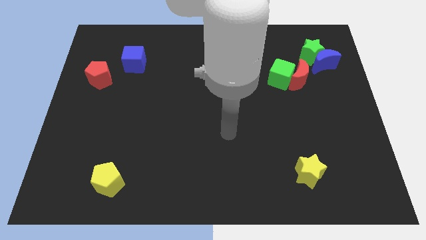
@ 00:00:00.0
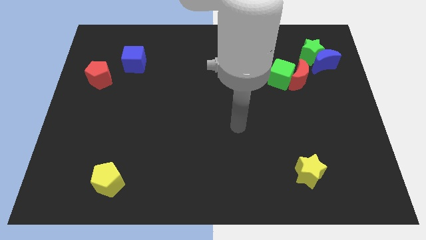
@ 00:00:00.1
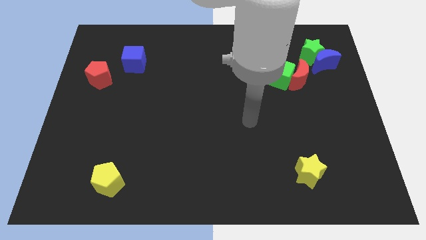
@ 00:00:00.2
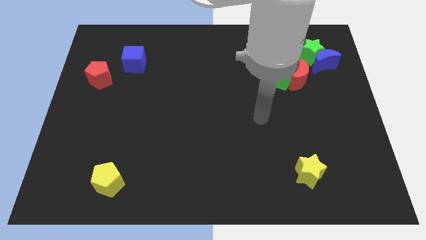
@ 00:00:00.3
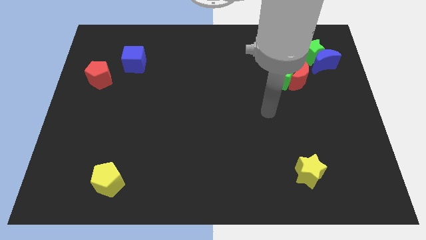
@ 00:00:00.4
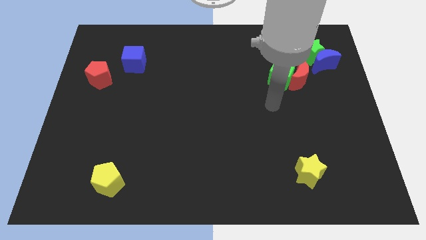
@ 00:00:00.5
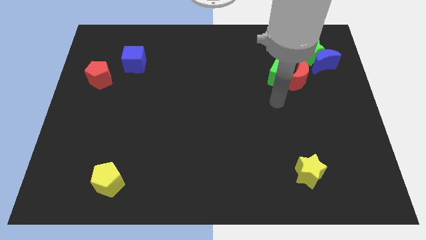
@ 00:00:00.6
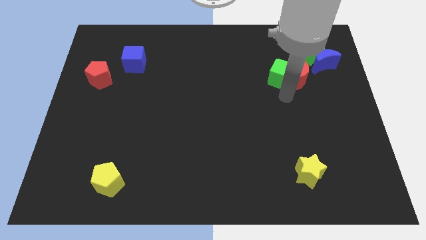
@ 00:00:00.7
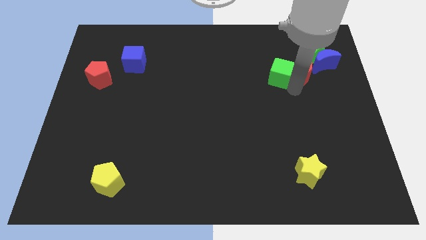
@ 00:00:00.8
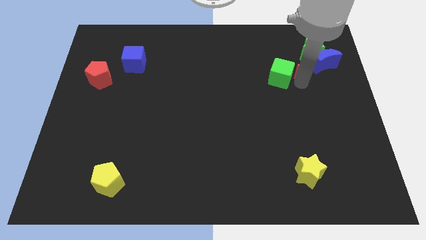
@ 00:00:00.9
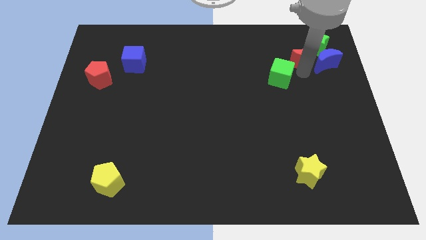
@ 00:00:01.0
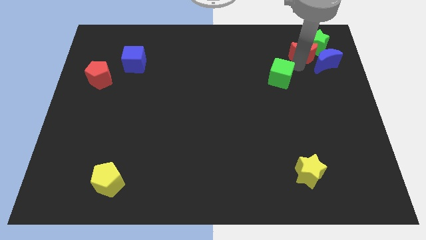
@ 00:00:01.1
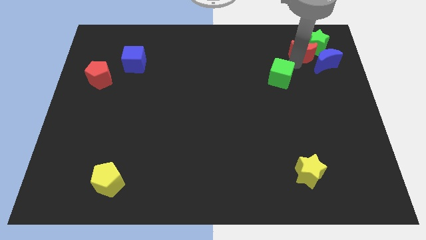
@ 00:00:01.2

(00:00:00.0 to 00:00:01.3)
pull the green cube apart from the red moon

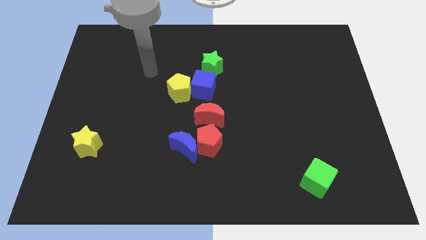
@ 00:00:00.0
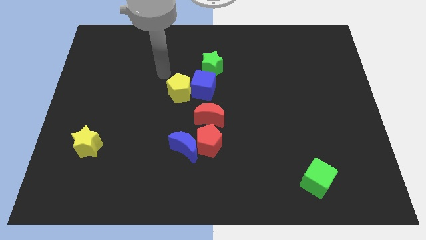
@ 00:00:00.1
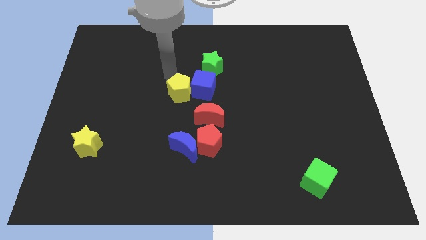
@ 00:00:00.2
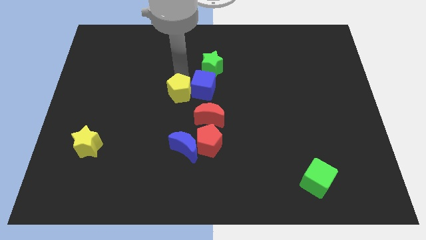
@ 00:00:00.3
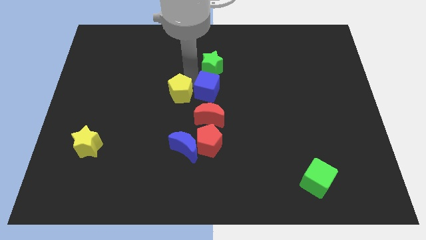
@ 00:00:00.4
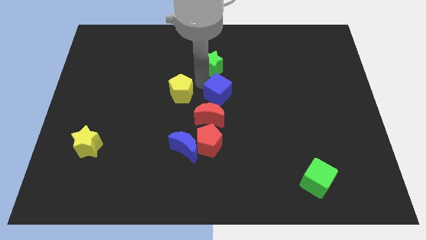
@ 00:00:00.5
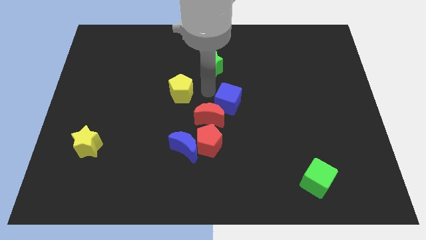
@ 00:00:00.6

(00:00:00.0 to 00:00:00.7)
pull the yellow pentagon apart from the blue cube

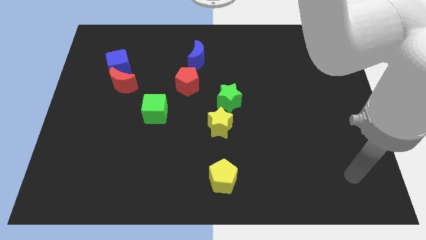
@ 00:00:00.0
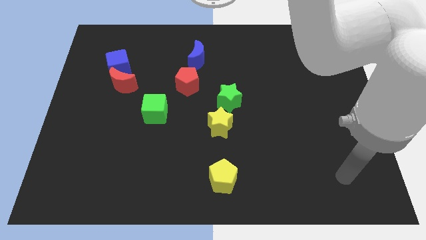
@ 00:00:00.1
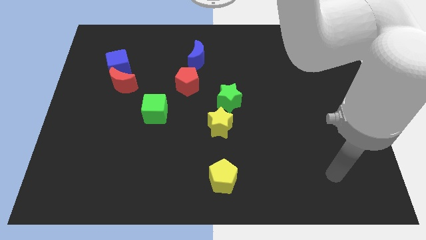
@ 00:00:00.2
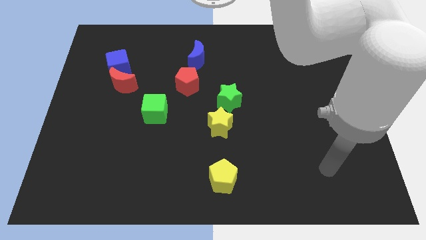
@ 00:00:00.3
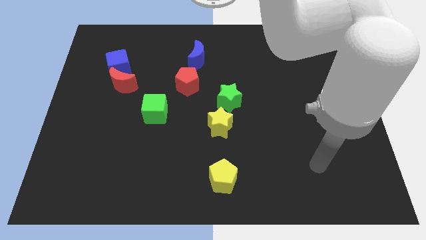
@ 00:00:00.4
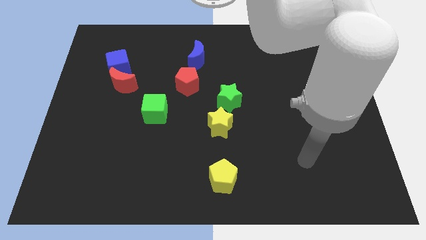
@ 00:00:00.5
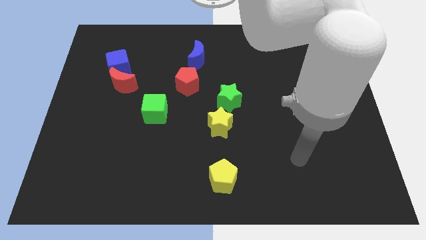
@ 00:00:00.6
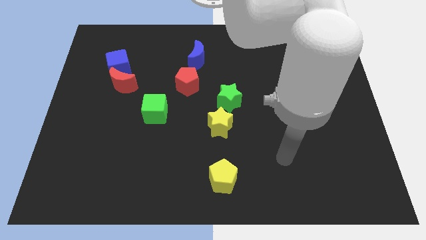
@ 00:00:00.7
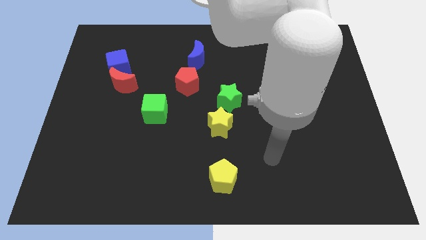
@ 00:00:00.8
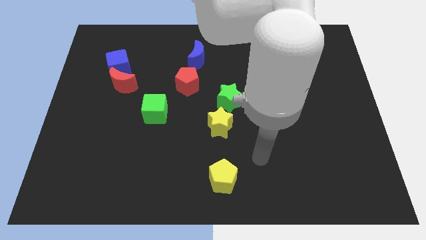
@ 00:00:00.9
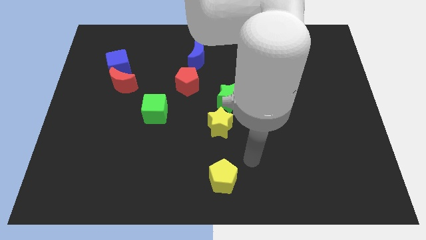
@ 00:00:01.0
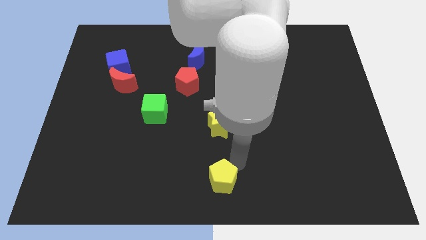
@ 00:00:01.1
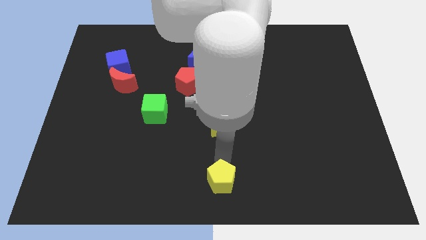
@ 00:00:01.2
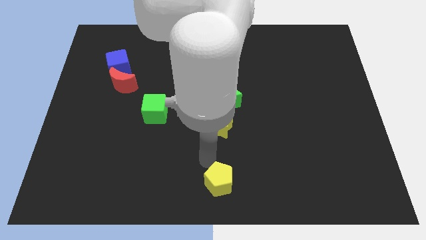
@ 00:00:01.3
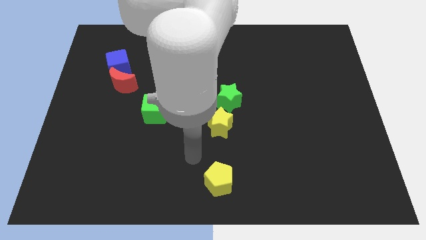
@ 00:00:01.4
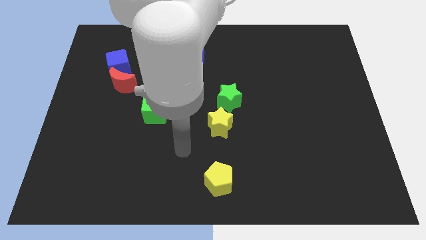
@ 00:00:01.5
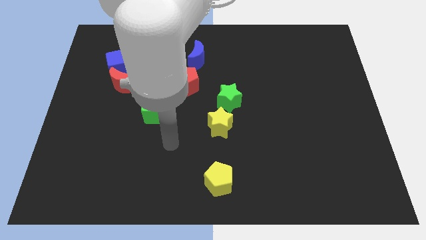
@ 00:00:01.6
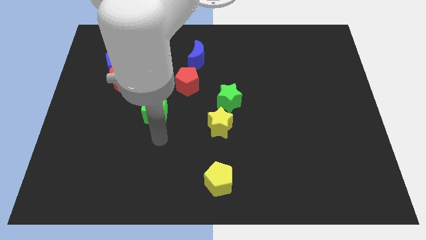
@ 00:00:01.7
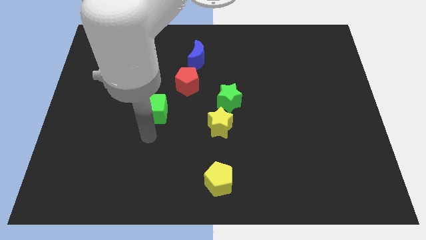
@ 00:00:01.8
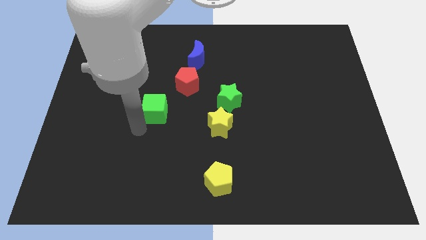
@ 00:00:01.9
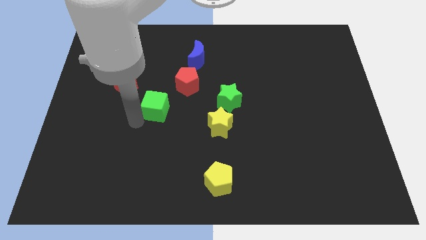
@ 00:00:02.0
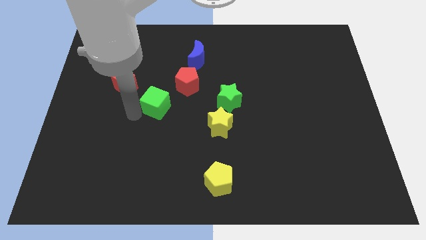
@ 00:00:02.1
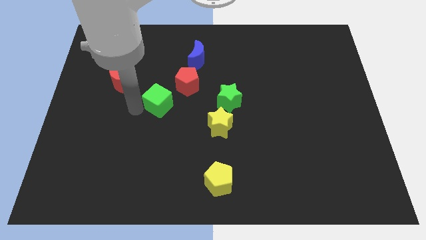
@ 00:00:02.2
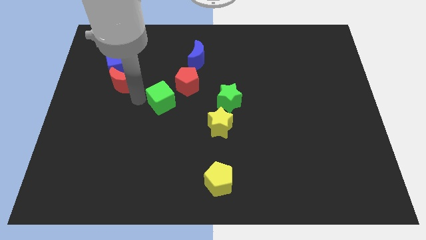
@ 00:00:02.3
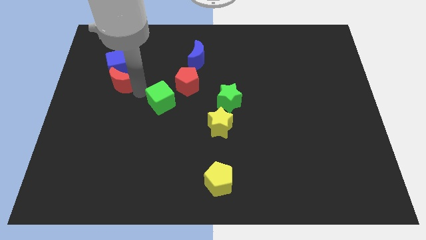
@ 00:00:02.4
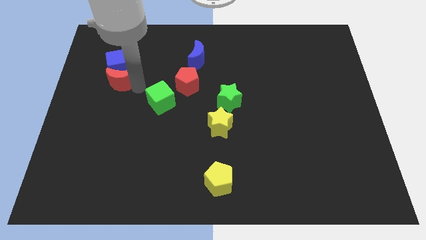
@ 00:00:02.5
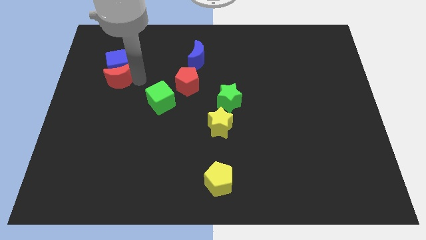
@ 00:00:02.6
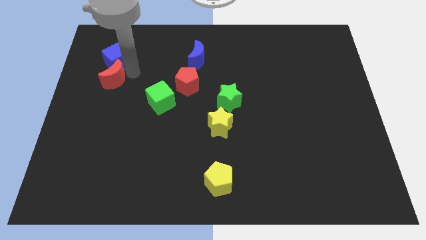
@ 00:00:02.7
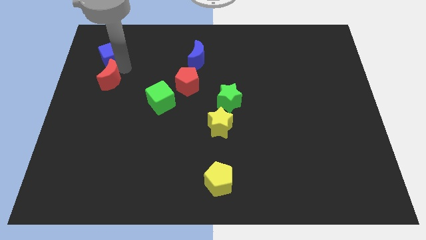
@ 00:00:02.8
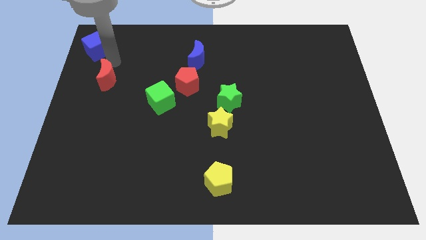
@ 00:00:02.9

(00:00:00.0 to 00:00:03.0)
move the red moon away from the blue cube

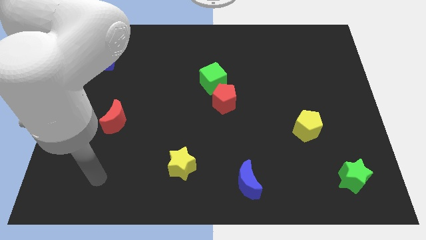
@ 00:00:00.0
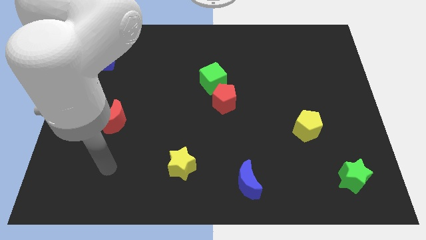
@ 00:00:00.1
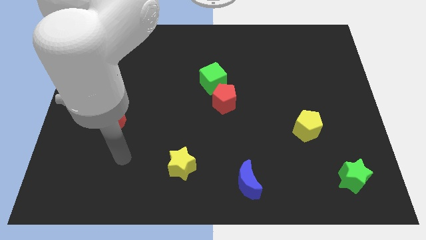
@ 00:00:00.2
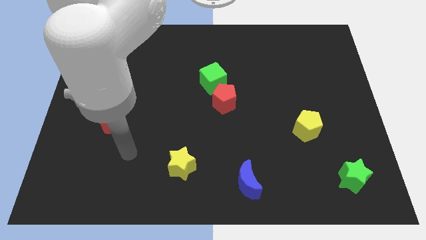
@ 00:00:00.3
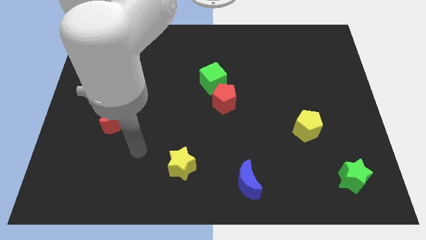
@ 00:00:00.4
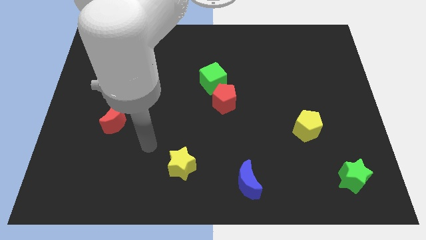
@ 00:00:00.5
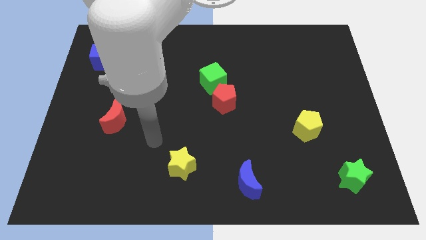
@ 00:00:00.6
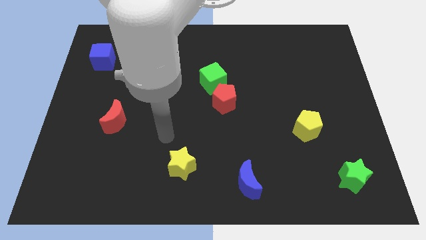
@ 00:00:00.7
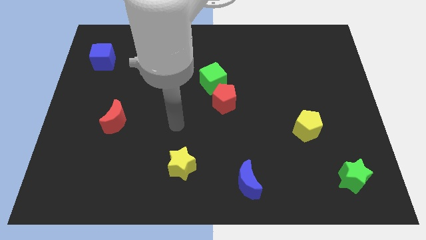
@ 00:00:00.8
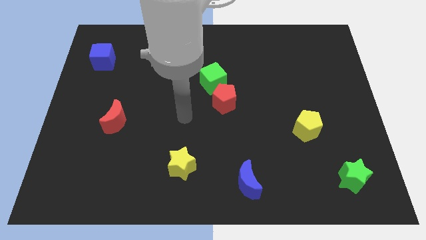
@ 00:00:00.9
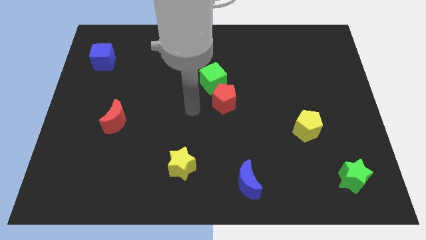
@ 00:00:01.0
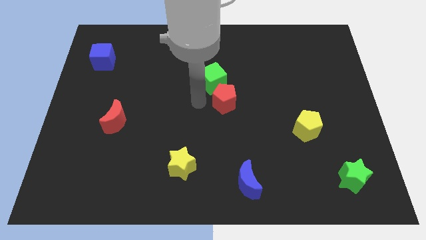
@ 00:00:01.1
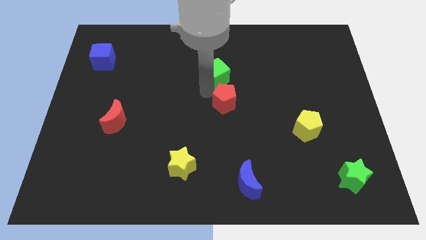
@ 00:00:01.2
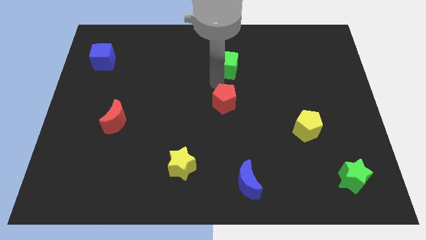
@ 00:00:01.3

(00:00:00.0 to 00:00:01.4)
move the red pentagon away from the green cube

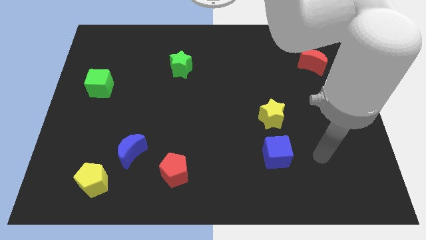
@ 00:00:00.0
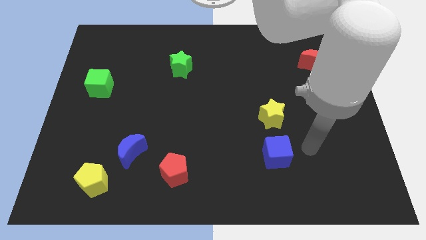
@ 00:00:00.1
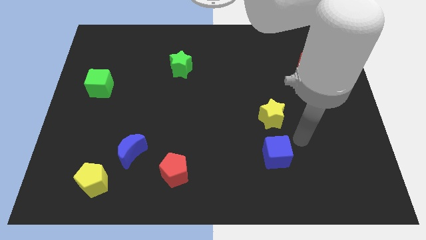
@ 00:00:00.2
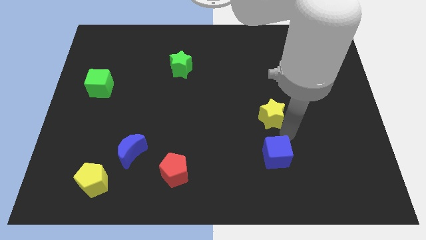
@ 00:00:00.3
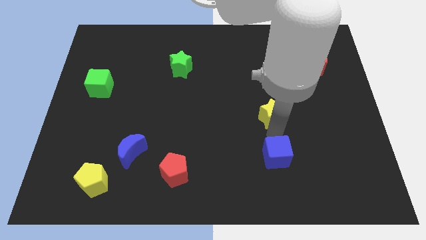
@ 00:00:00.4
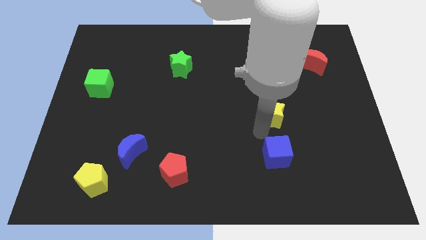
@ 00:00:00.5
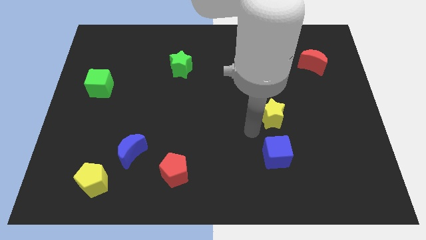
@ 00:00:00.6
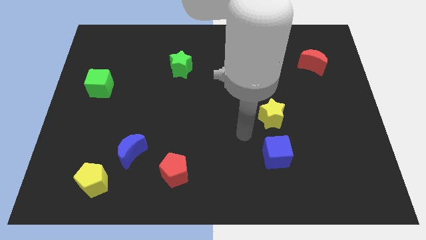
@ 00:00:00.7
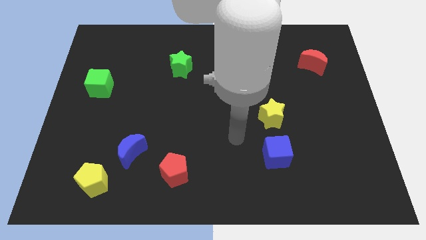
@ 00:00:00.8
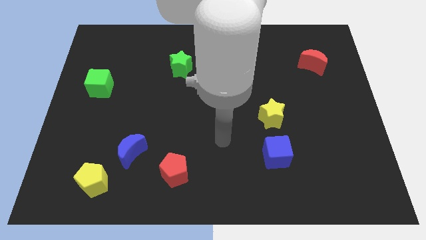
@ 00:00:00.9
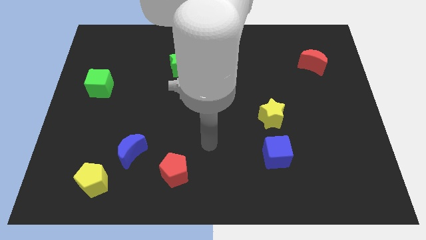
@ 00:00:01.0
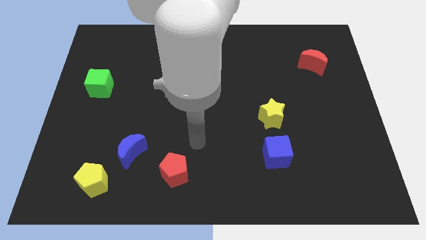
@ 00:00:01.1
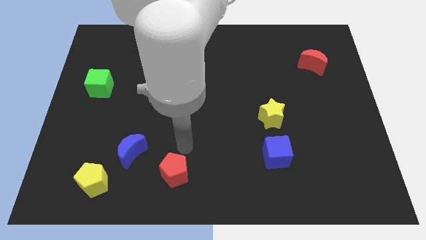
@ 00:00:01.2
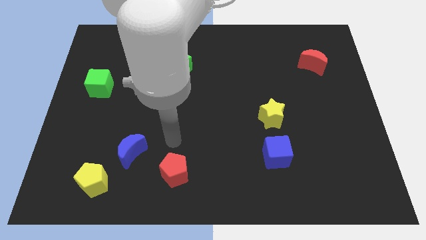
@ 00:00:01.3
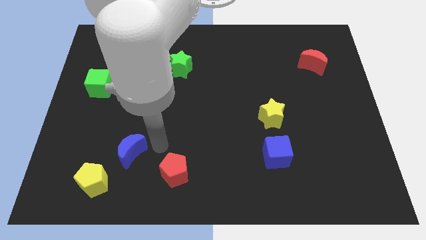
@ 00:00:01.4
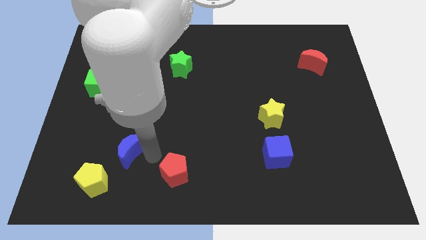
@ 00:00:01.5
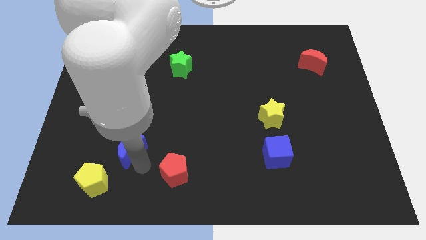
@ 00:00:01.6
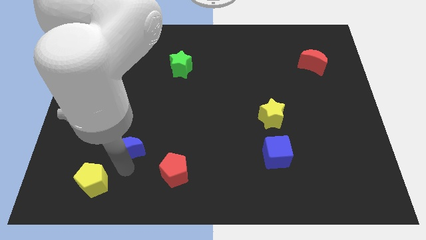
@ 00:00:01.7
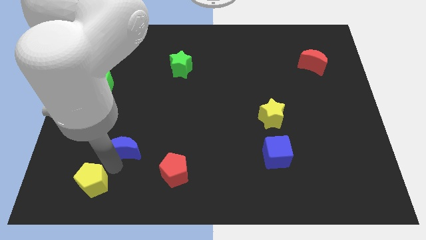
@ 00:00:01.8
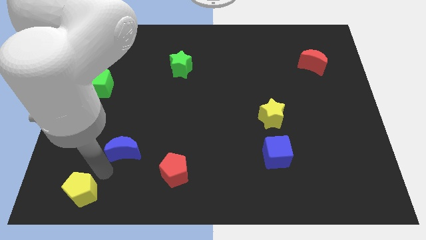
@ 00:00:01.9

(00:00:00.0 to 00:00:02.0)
move the blue moon away from the yellow pentagon

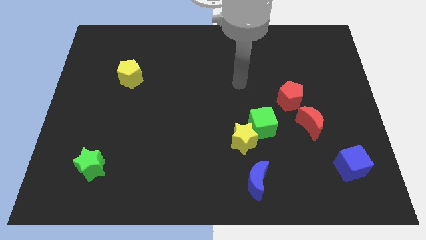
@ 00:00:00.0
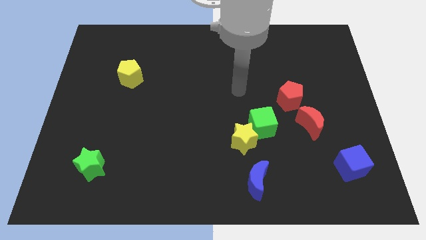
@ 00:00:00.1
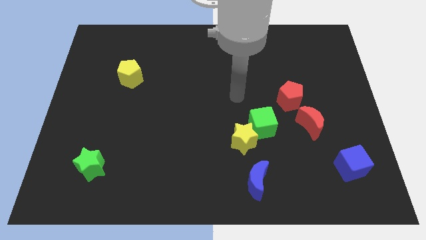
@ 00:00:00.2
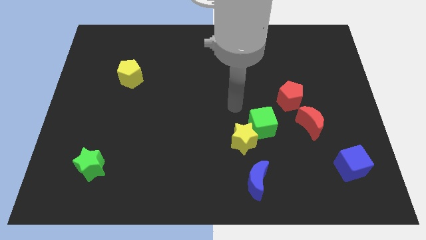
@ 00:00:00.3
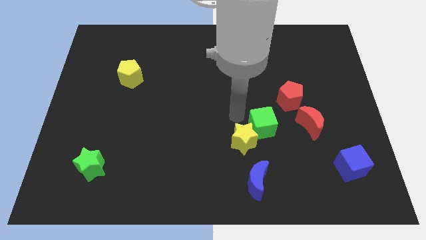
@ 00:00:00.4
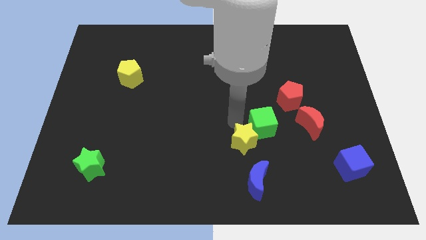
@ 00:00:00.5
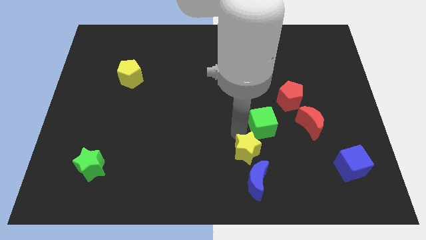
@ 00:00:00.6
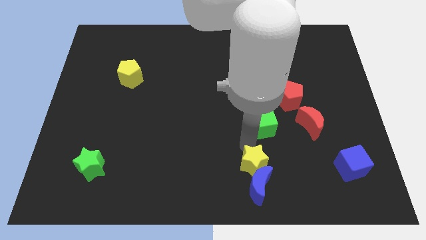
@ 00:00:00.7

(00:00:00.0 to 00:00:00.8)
move the green cube away from the yellow star
